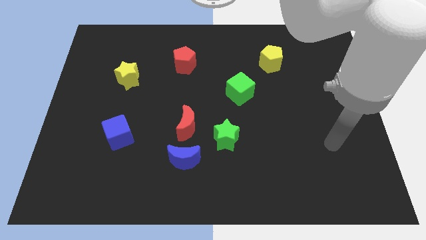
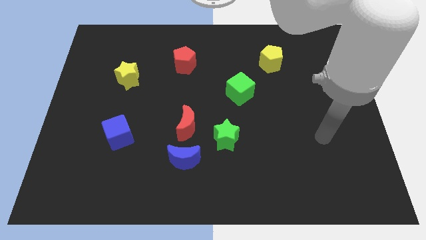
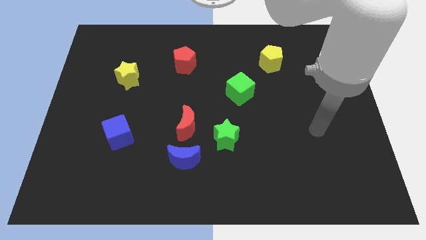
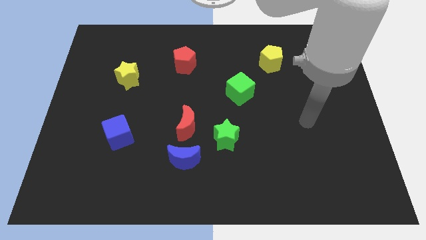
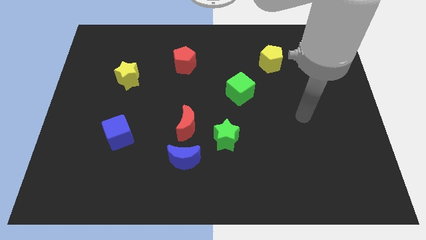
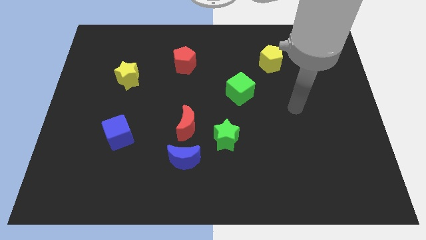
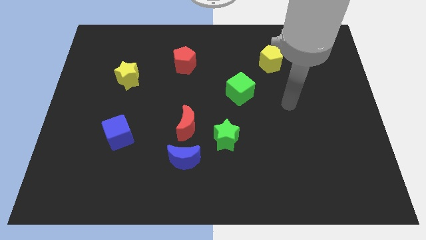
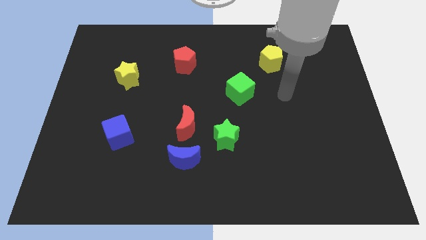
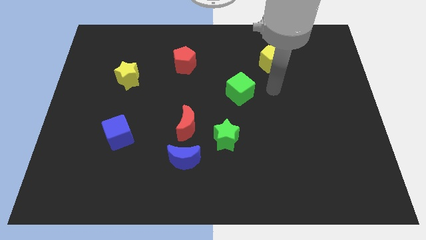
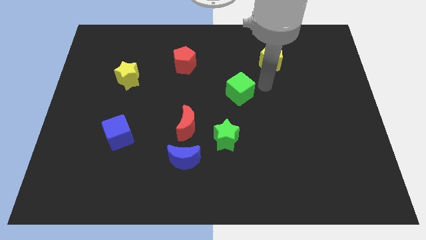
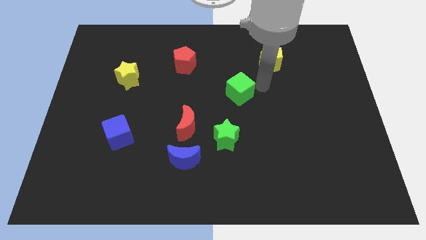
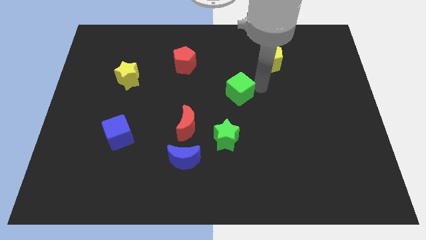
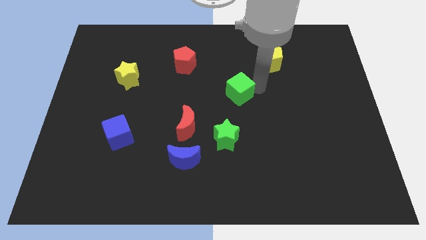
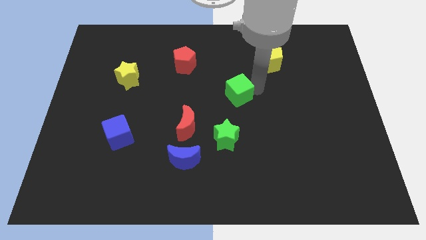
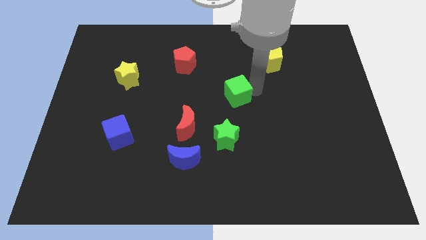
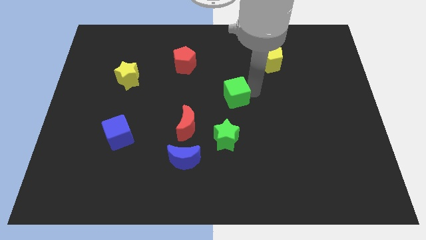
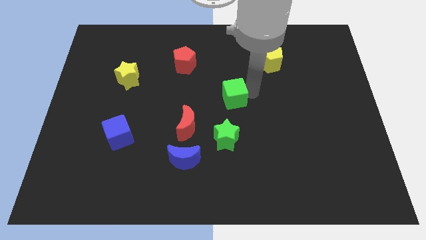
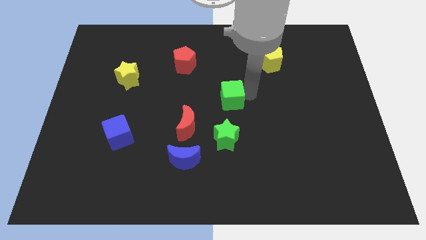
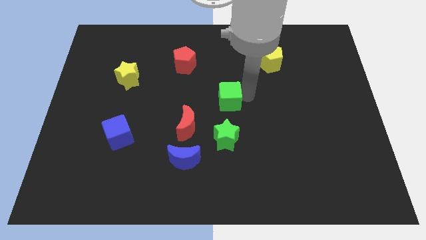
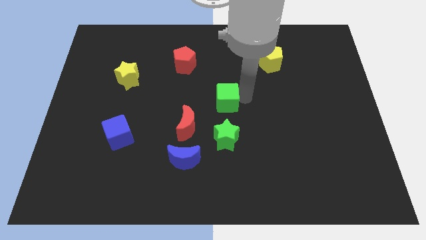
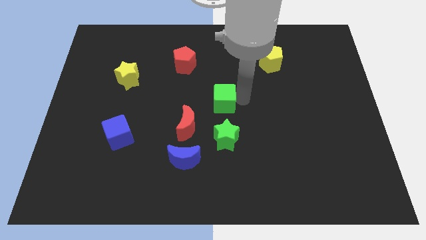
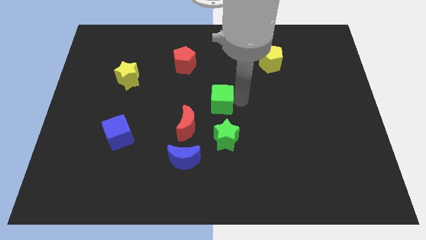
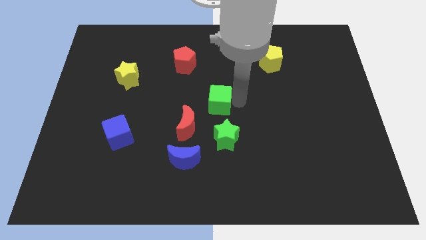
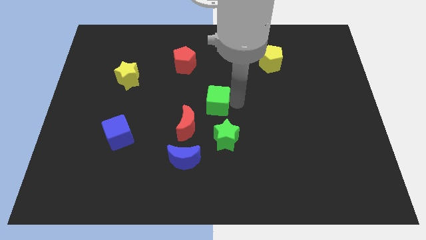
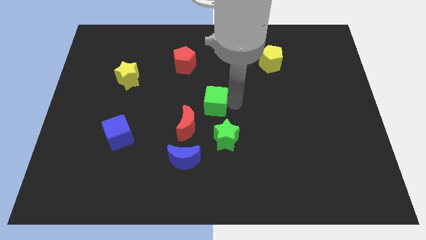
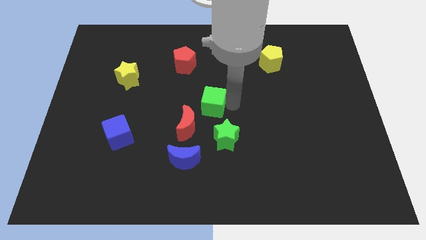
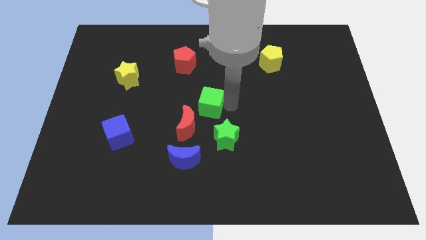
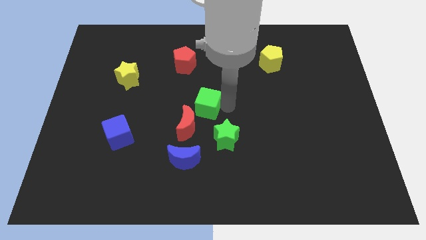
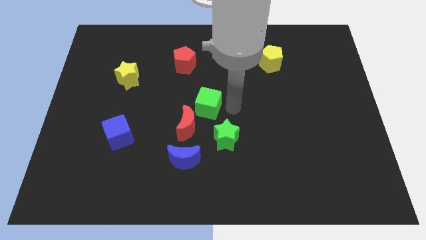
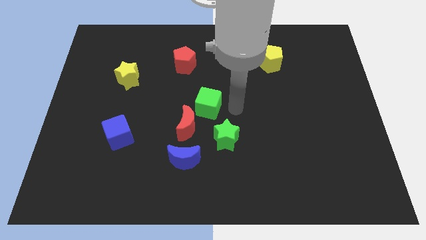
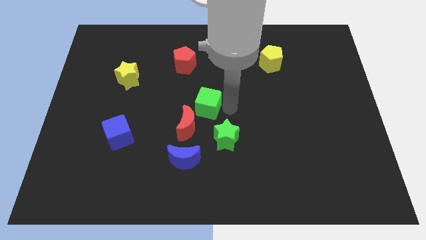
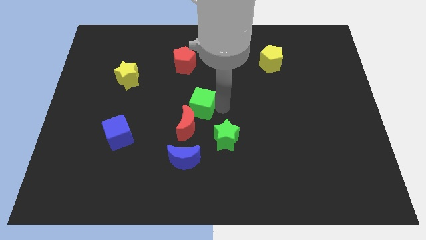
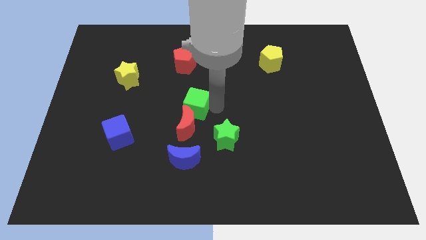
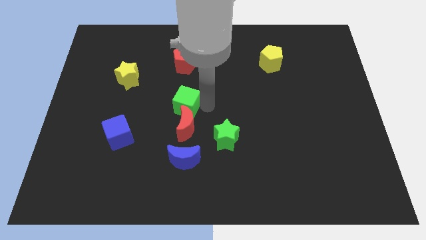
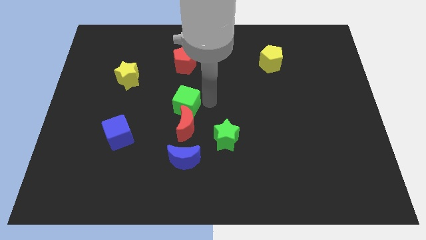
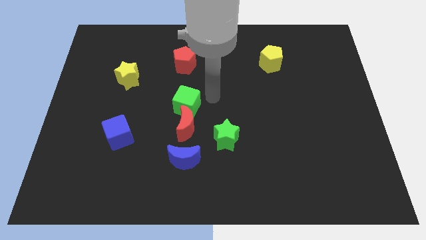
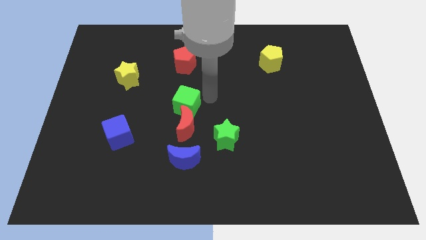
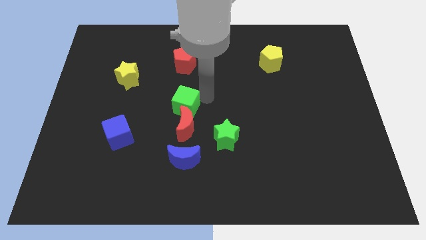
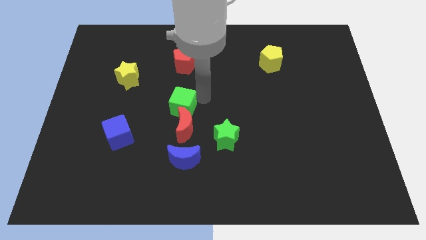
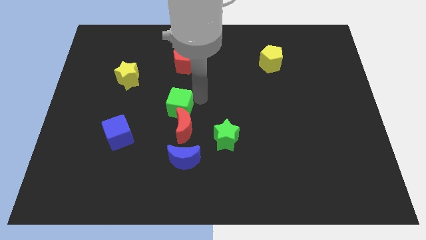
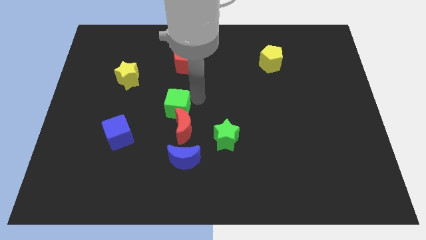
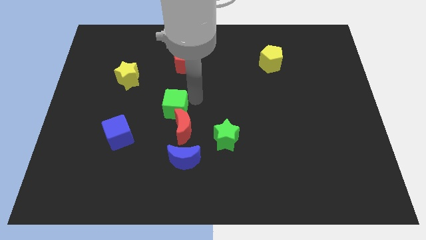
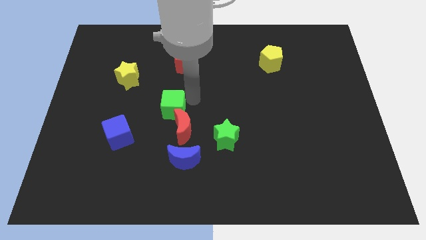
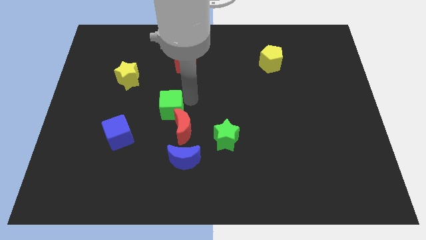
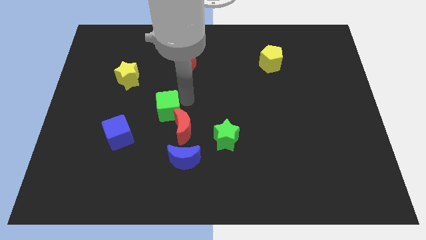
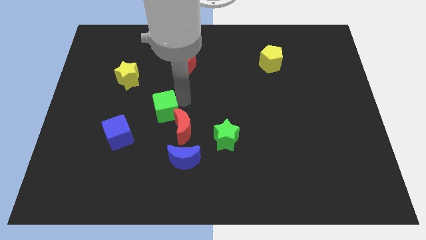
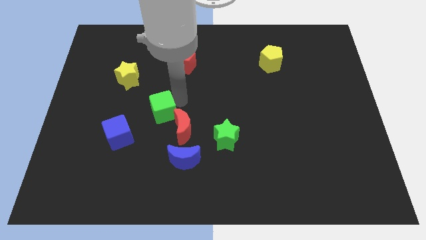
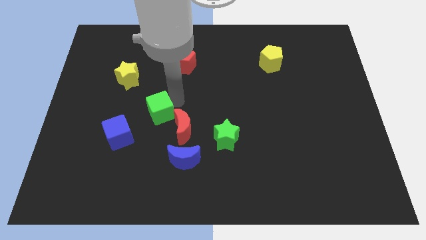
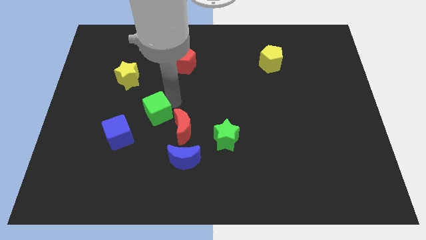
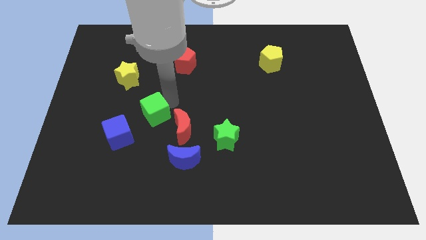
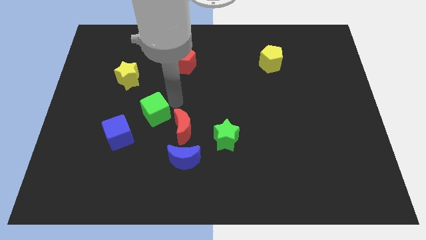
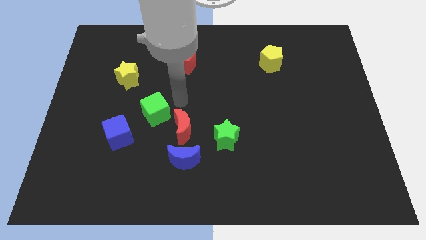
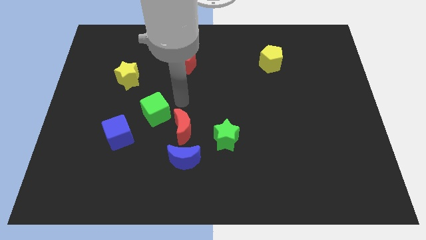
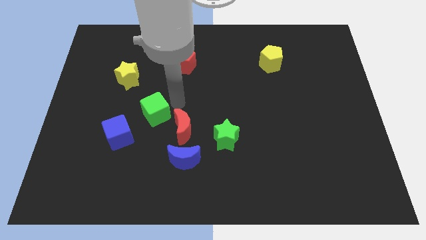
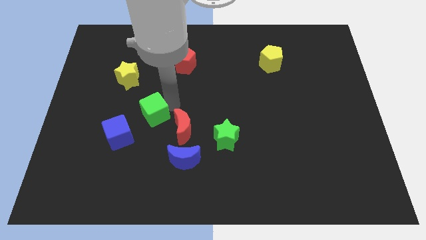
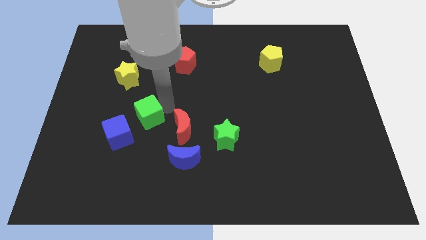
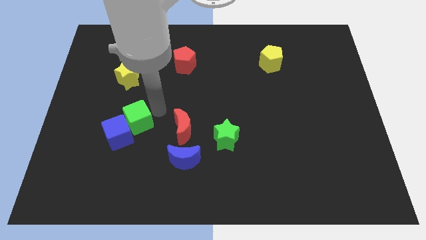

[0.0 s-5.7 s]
put the green cube towards the blue cube

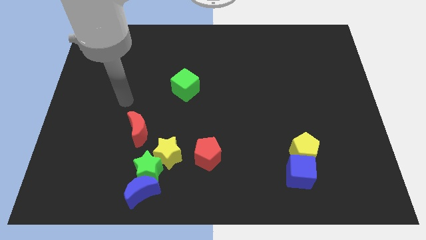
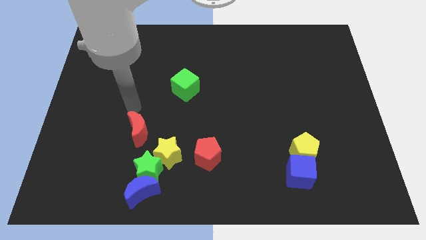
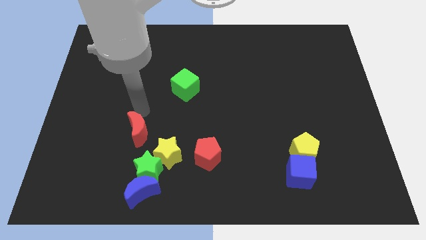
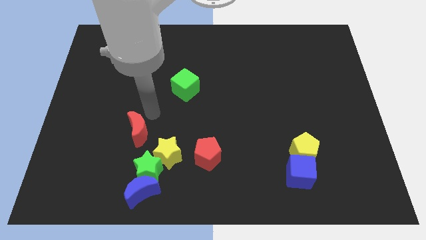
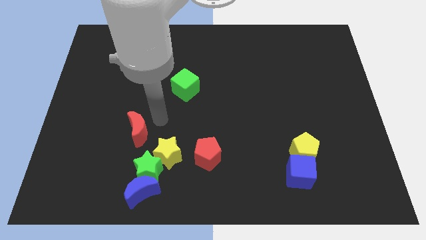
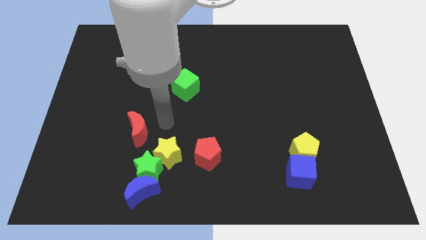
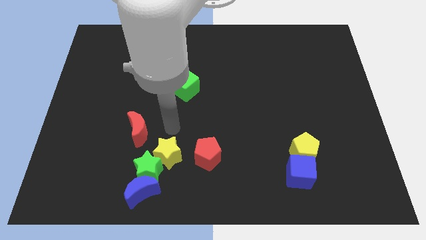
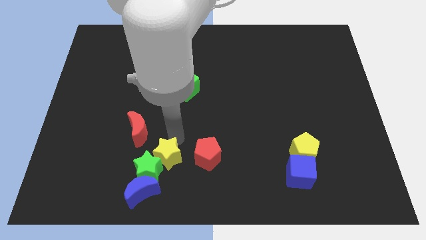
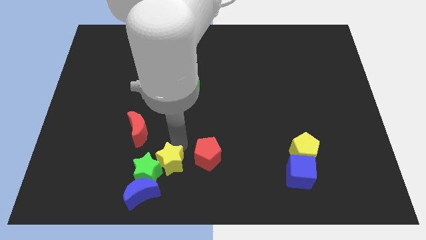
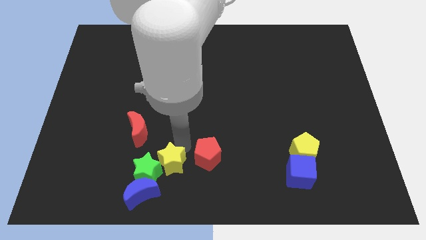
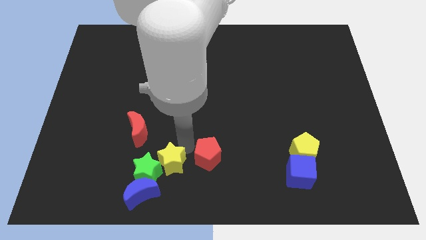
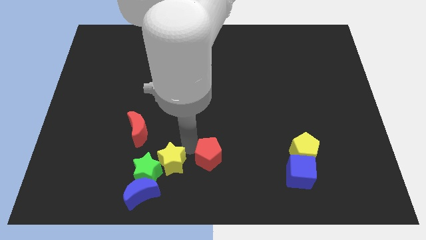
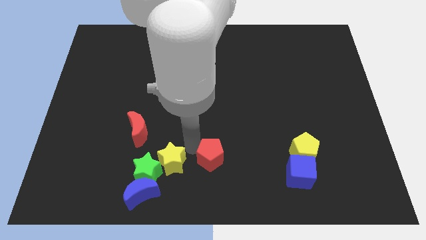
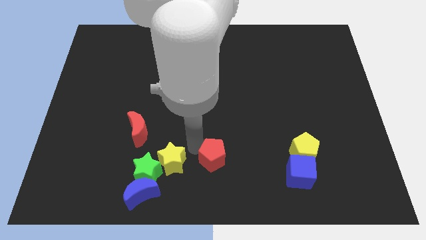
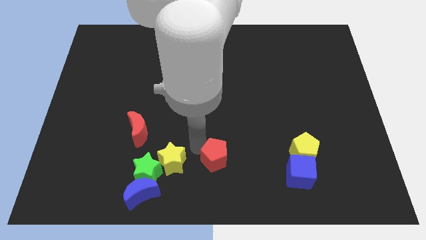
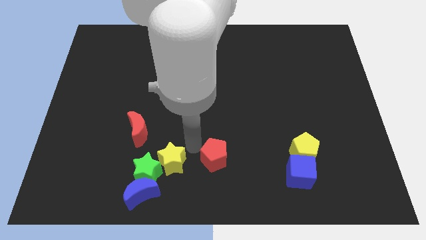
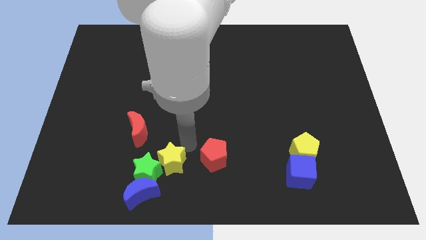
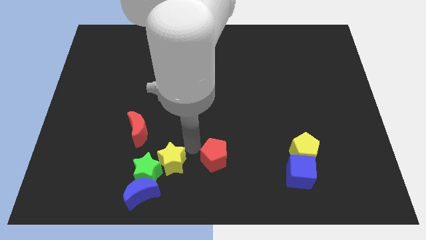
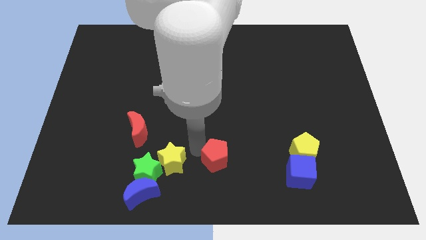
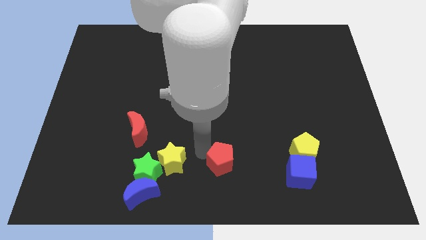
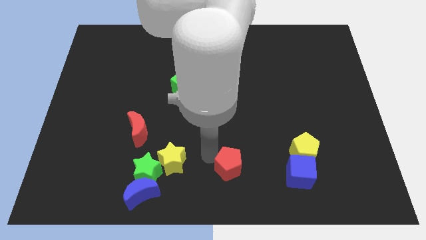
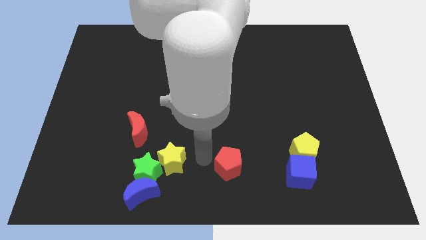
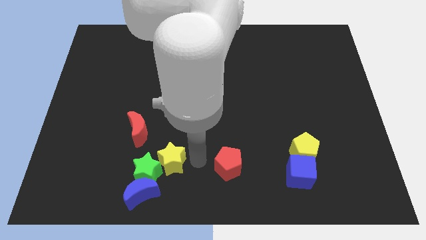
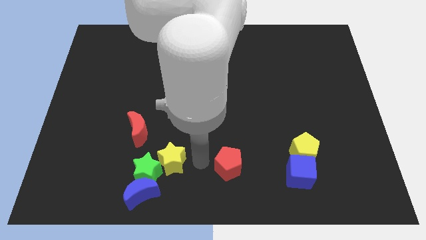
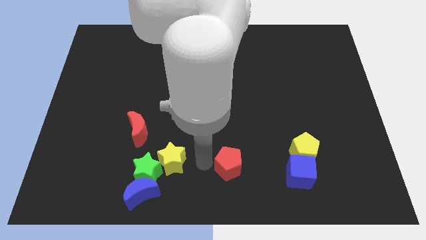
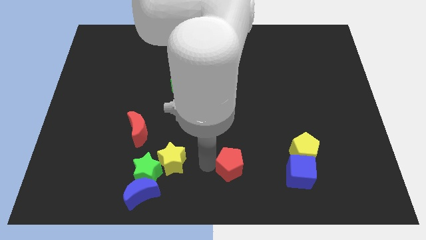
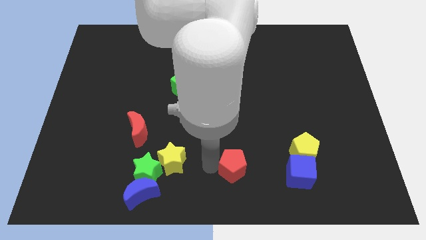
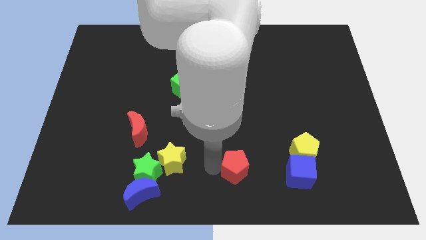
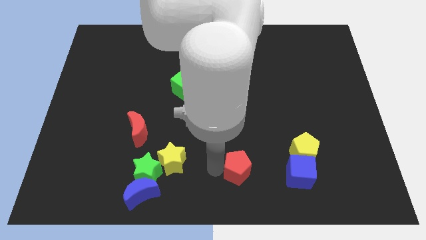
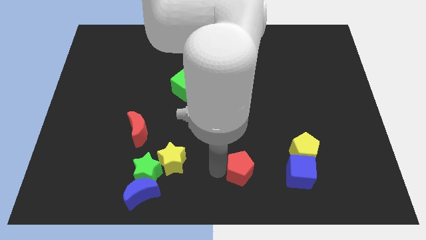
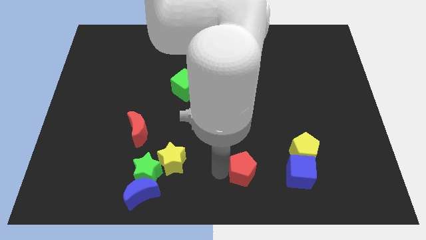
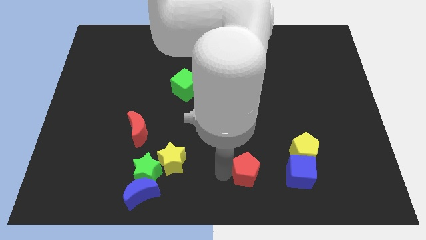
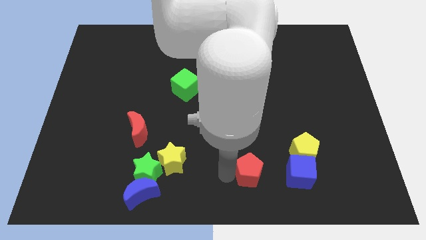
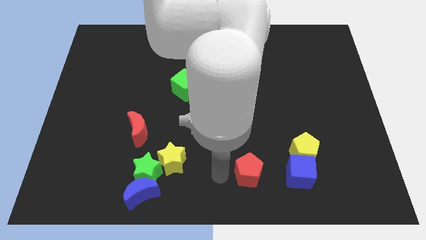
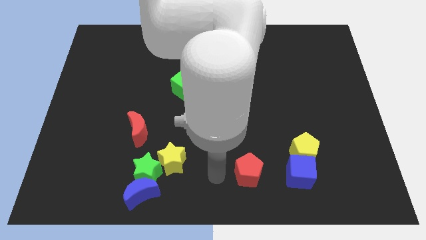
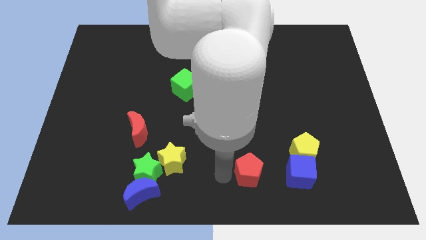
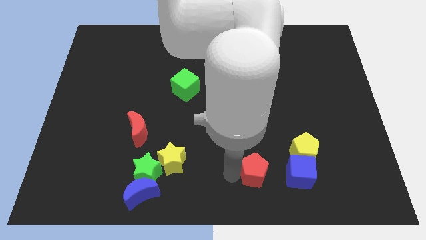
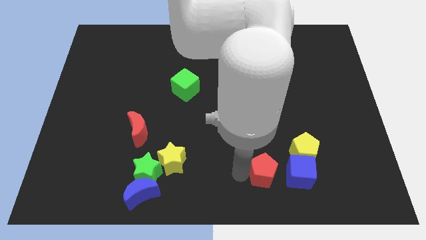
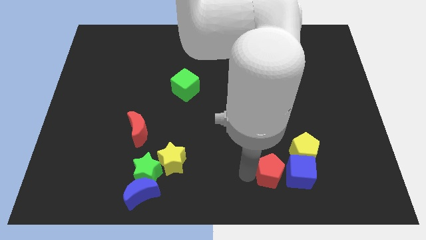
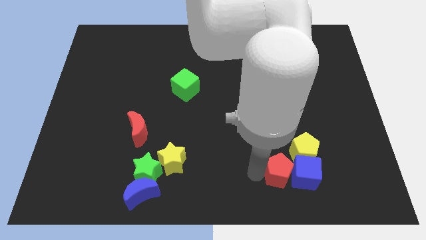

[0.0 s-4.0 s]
push the red pentagon next to the blue cube
